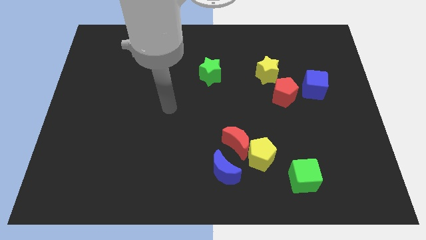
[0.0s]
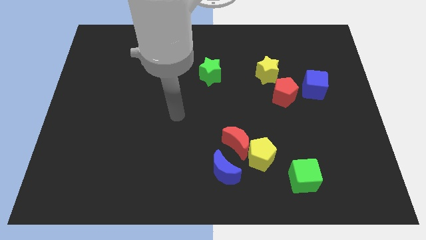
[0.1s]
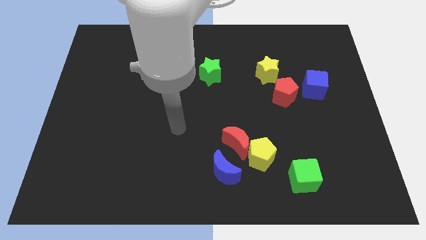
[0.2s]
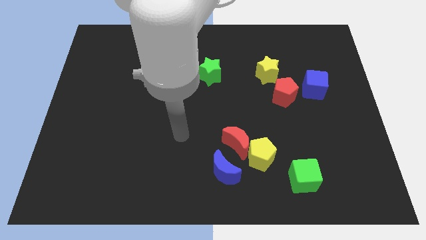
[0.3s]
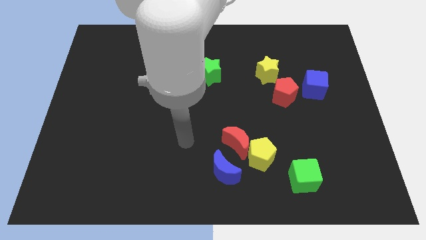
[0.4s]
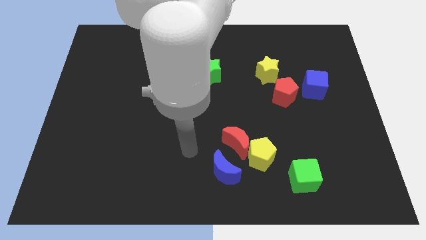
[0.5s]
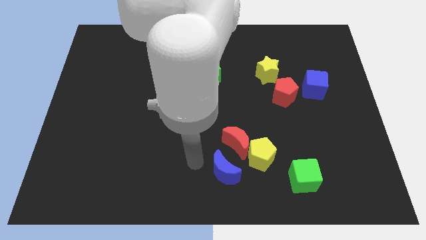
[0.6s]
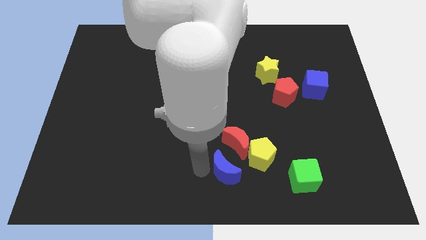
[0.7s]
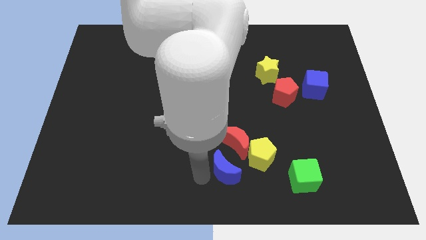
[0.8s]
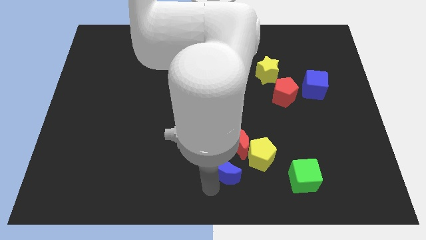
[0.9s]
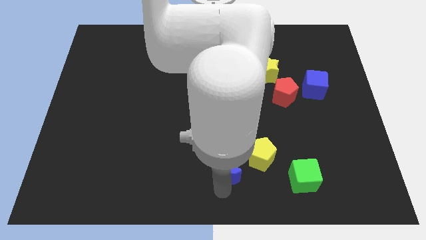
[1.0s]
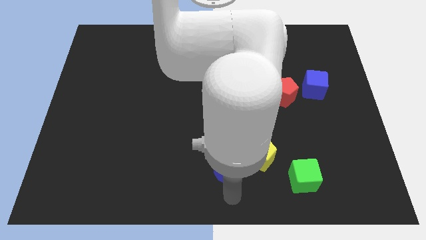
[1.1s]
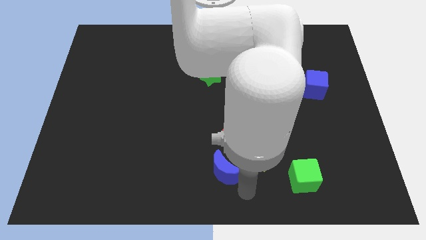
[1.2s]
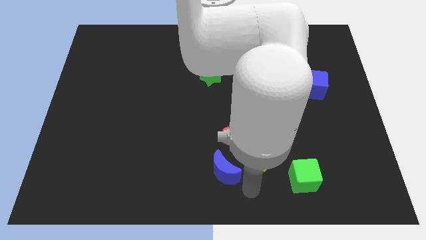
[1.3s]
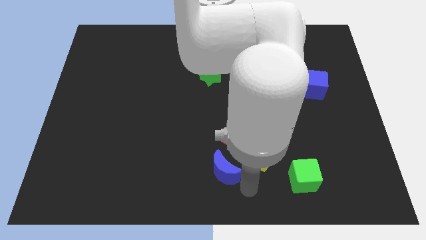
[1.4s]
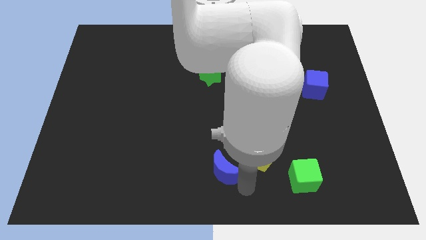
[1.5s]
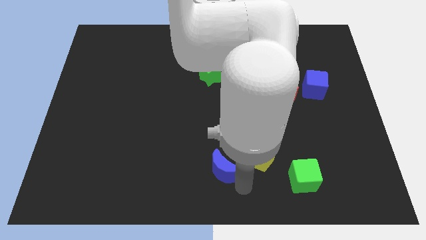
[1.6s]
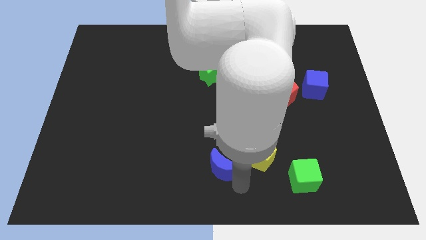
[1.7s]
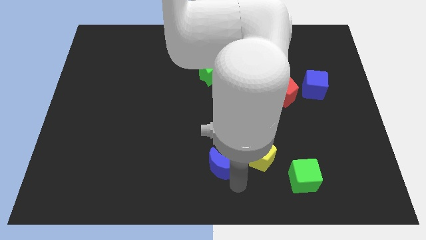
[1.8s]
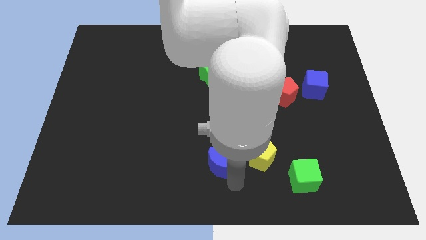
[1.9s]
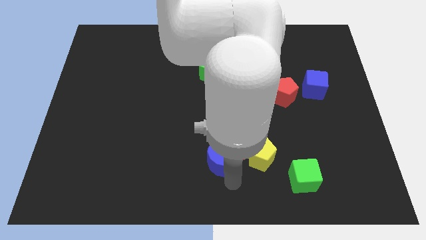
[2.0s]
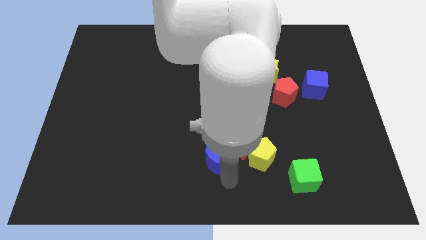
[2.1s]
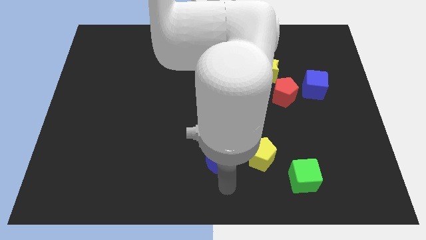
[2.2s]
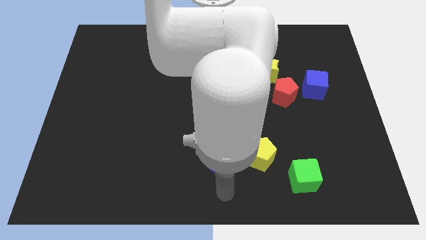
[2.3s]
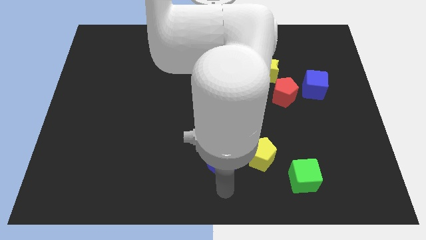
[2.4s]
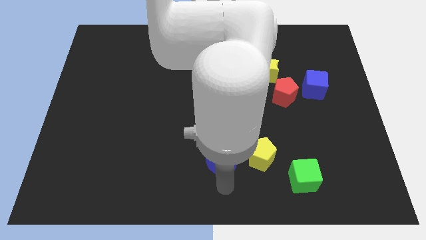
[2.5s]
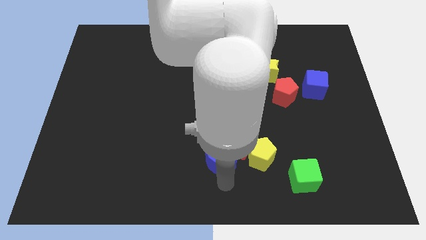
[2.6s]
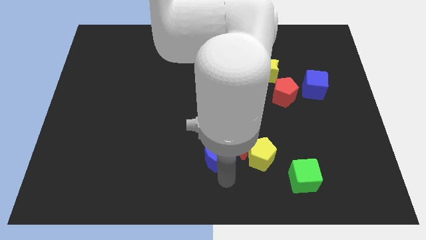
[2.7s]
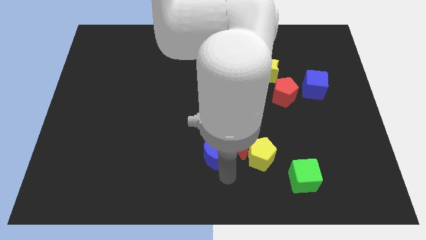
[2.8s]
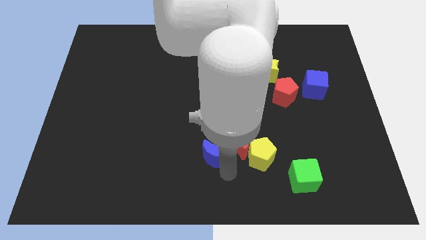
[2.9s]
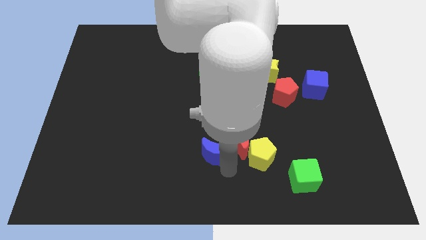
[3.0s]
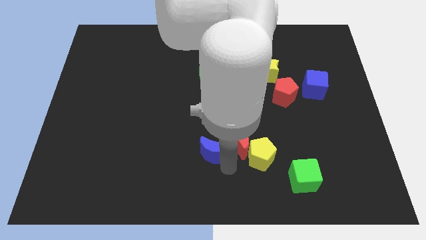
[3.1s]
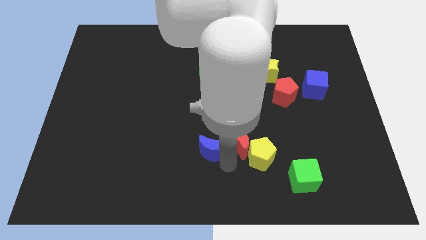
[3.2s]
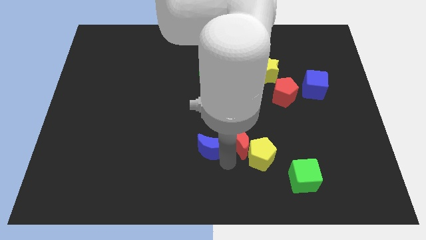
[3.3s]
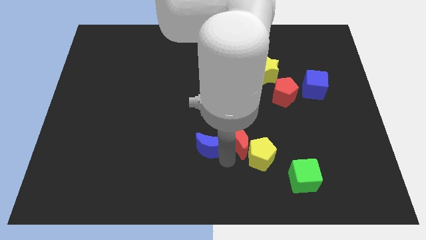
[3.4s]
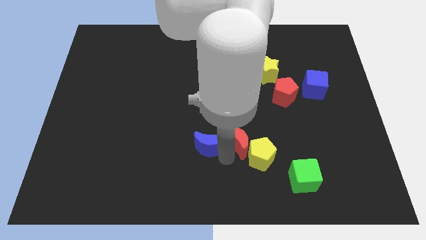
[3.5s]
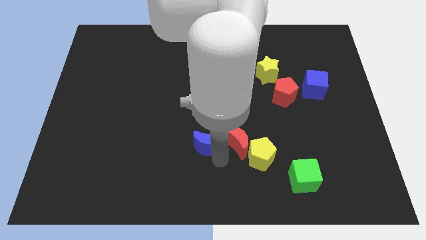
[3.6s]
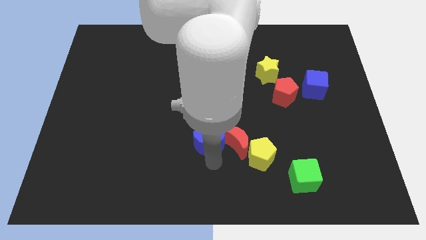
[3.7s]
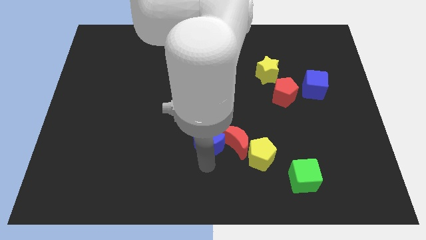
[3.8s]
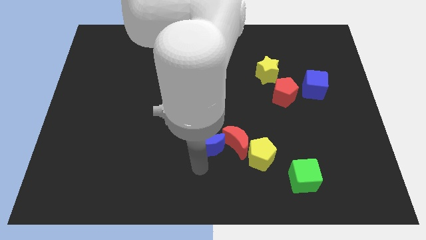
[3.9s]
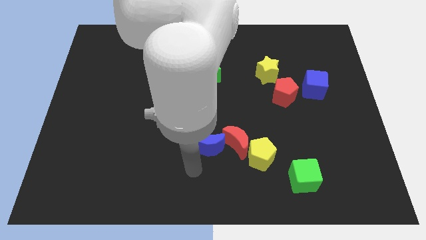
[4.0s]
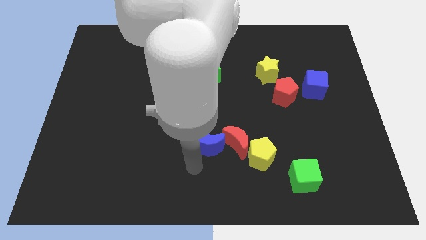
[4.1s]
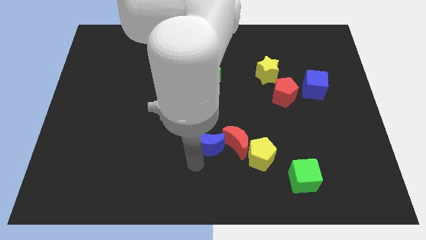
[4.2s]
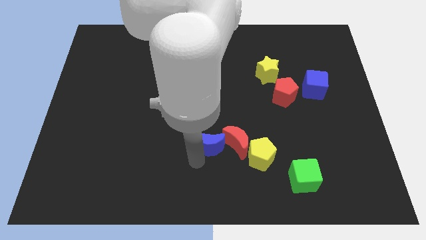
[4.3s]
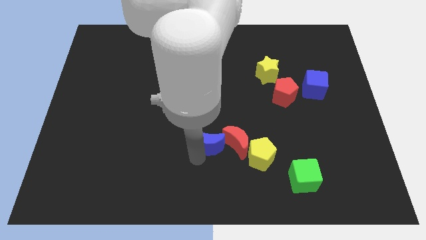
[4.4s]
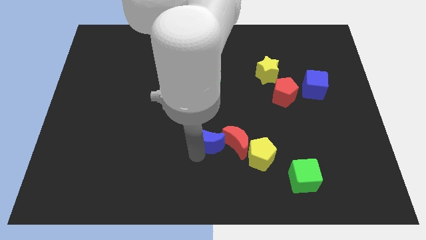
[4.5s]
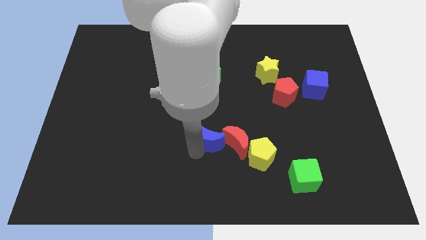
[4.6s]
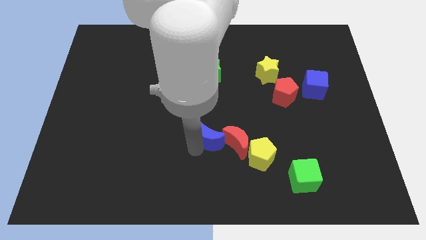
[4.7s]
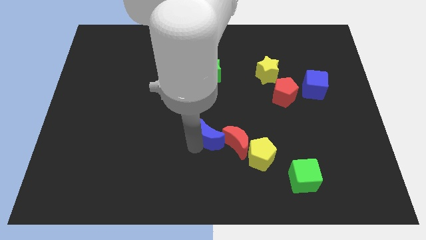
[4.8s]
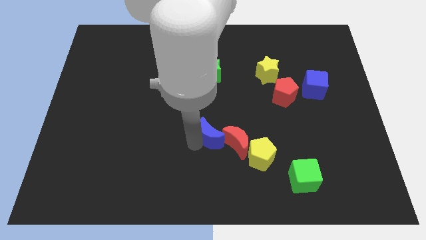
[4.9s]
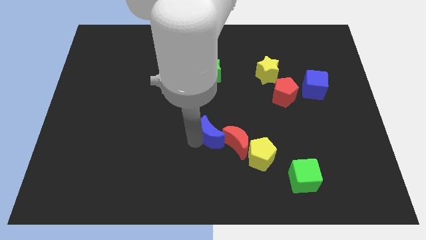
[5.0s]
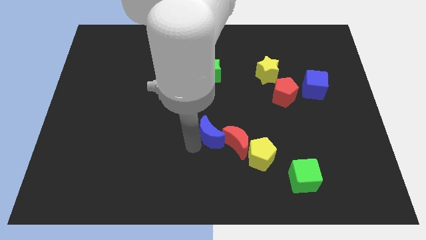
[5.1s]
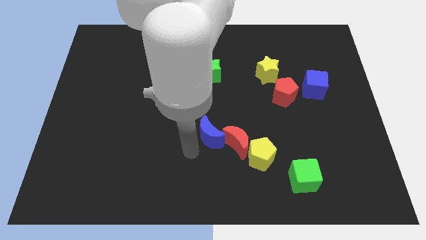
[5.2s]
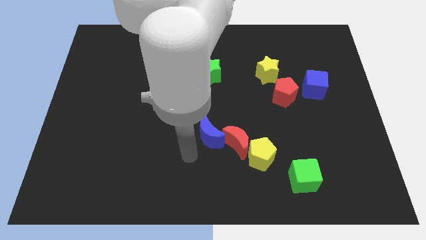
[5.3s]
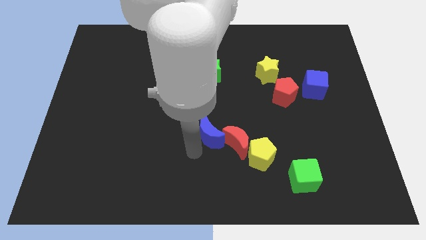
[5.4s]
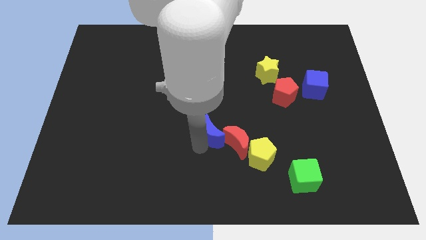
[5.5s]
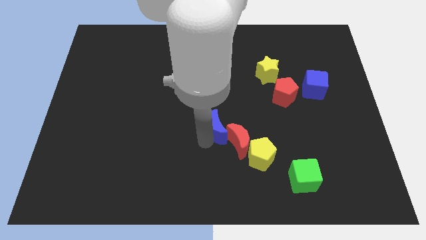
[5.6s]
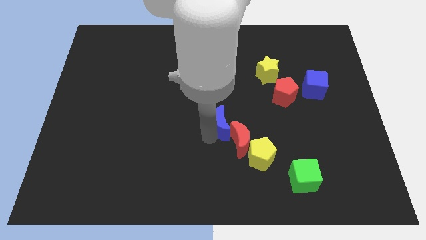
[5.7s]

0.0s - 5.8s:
slide the blue moon to the top of the red moon
